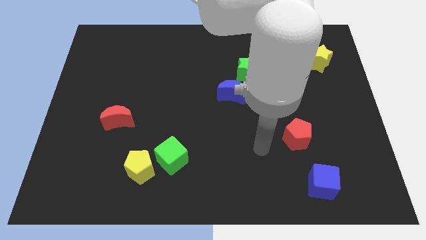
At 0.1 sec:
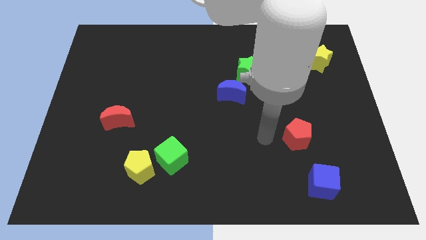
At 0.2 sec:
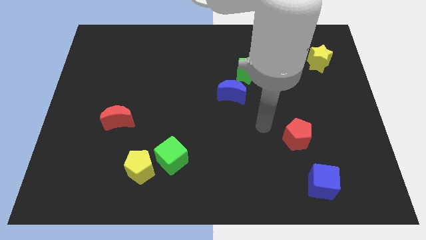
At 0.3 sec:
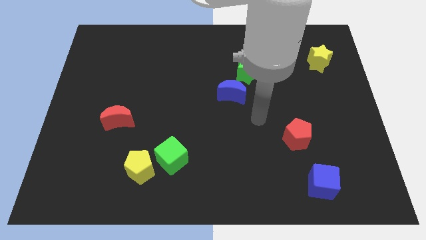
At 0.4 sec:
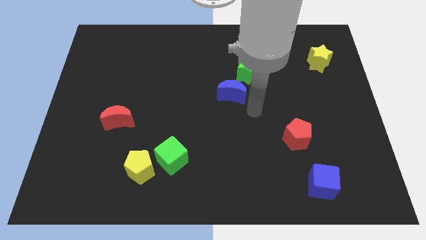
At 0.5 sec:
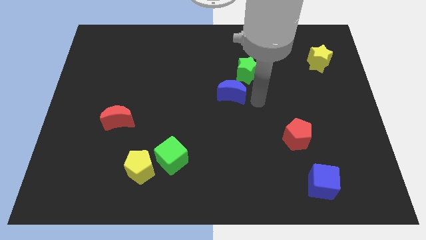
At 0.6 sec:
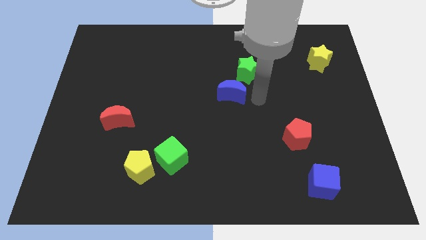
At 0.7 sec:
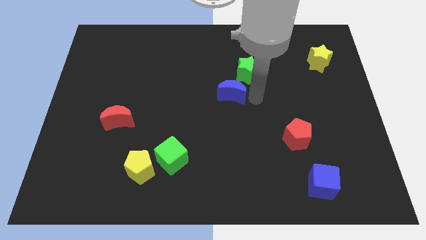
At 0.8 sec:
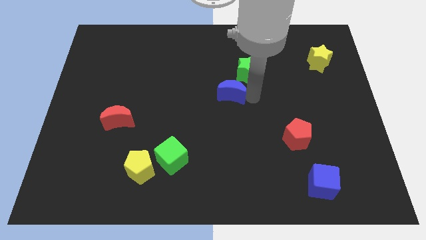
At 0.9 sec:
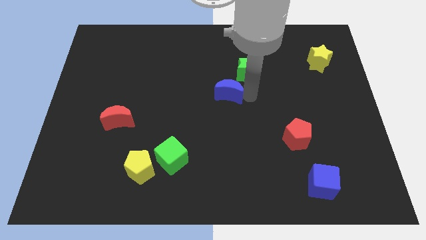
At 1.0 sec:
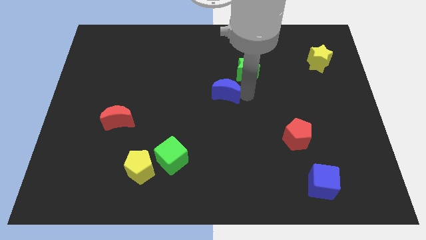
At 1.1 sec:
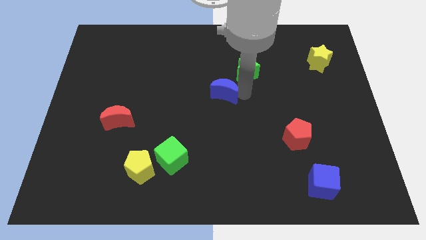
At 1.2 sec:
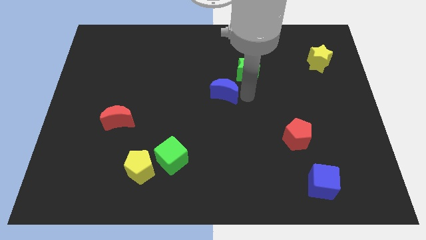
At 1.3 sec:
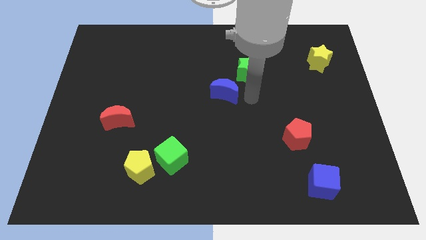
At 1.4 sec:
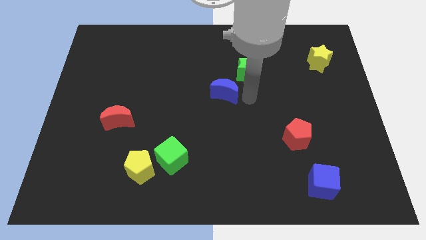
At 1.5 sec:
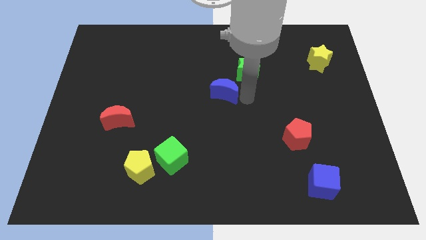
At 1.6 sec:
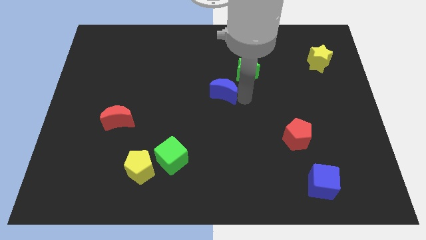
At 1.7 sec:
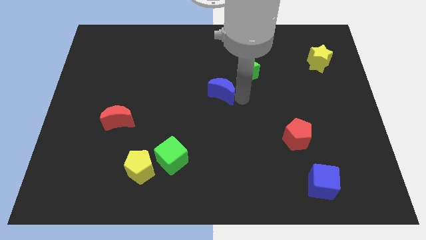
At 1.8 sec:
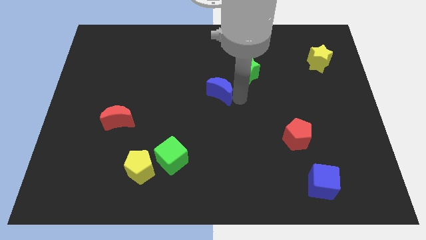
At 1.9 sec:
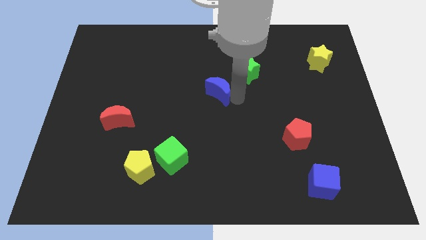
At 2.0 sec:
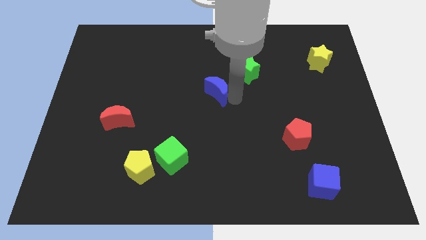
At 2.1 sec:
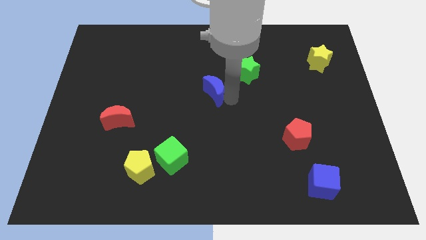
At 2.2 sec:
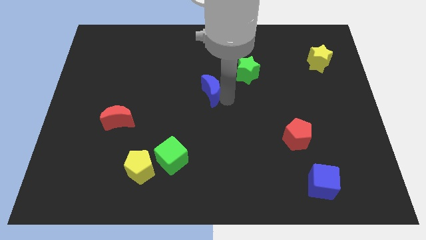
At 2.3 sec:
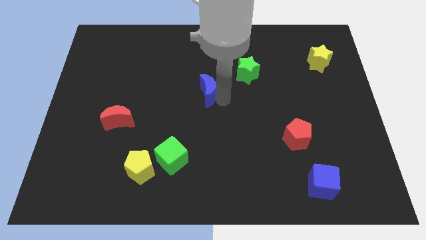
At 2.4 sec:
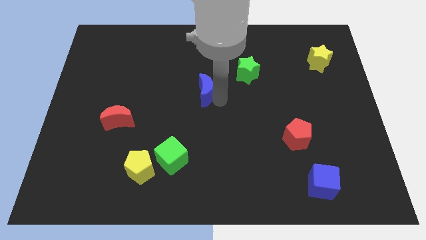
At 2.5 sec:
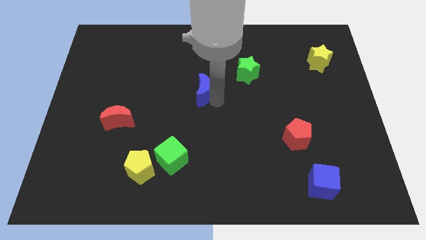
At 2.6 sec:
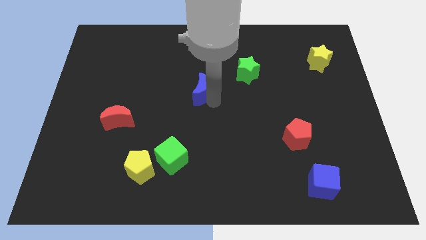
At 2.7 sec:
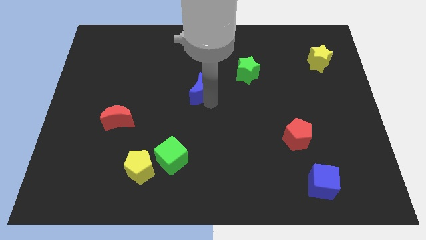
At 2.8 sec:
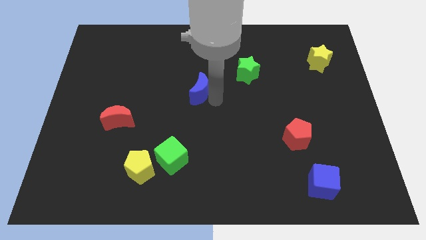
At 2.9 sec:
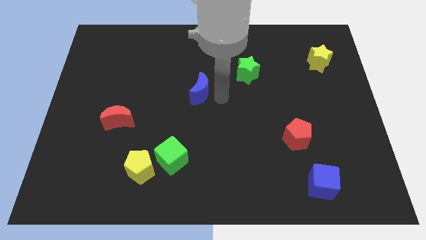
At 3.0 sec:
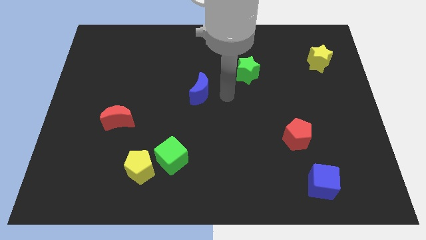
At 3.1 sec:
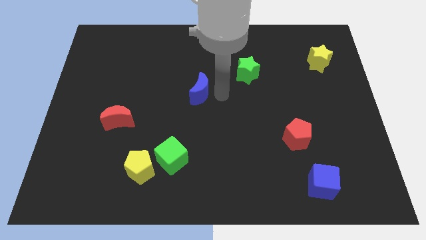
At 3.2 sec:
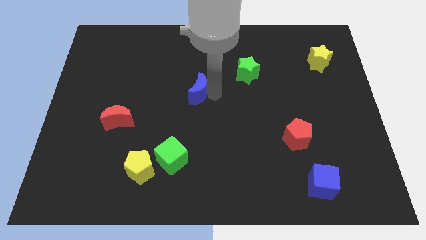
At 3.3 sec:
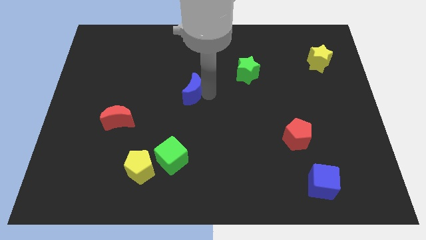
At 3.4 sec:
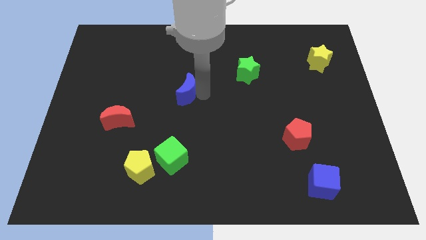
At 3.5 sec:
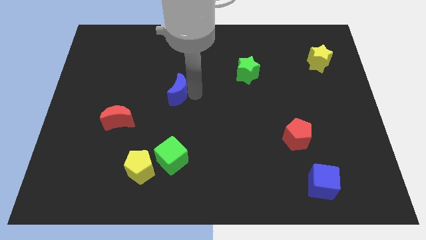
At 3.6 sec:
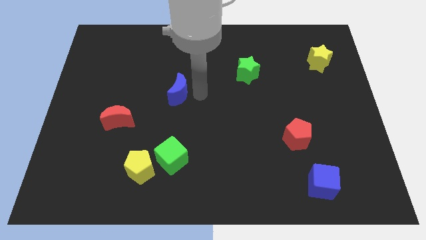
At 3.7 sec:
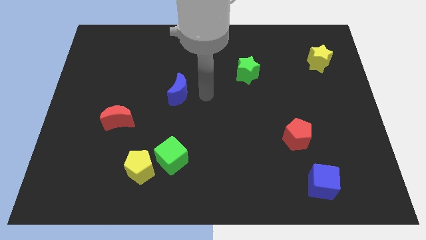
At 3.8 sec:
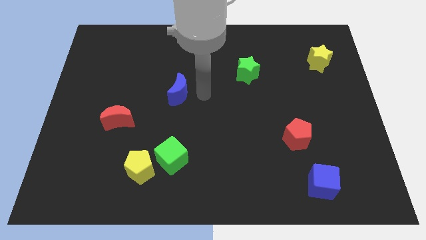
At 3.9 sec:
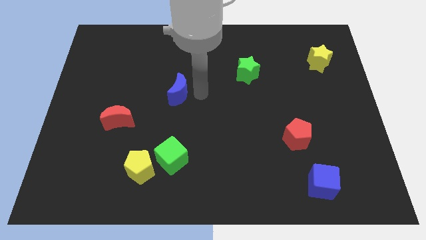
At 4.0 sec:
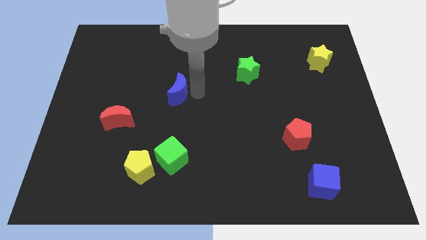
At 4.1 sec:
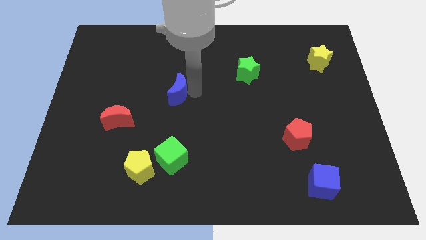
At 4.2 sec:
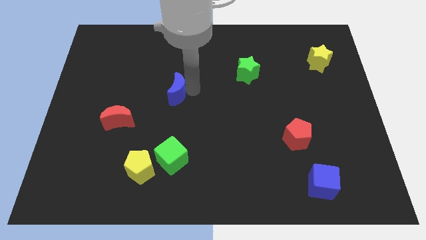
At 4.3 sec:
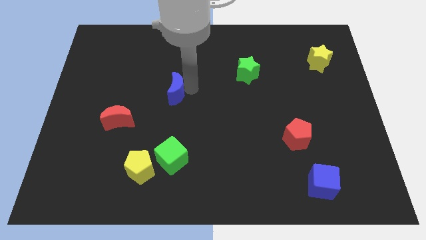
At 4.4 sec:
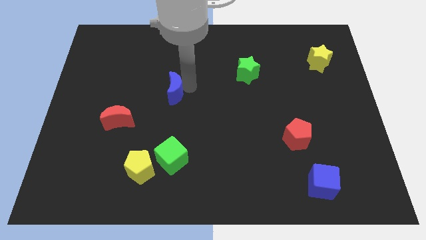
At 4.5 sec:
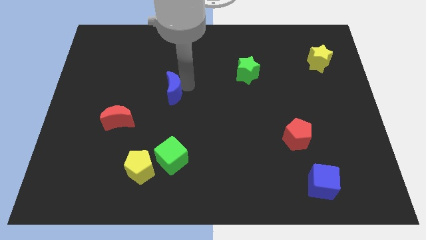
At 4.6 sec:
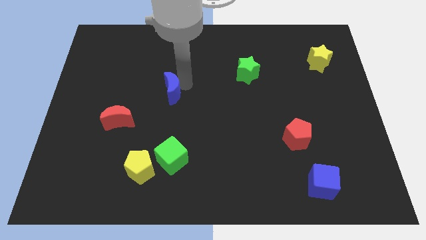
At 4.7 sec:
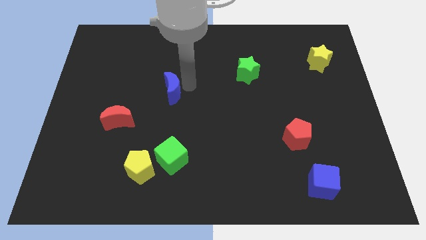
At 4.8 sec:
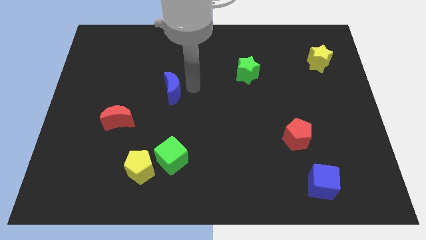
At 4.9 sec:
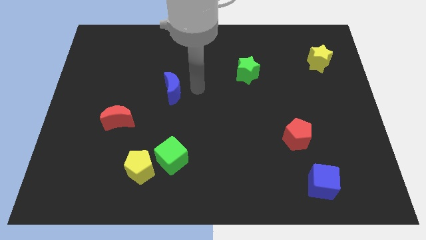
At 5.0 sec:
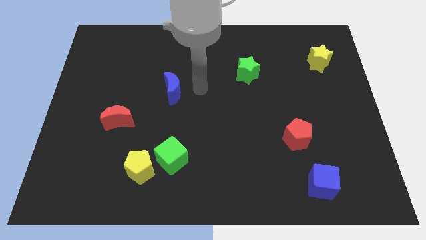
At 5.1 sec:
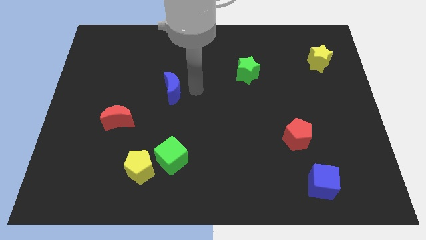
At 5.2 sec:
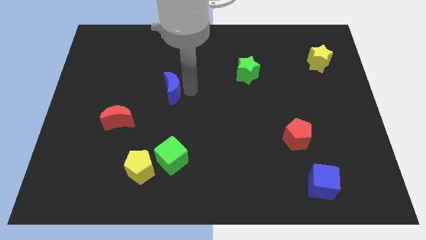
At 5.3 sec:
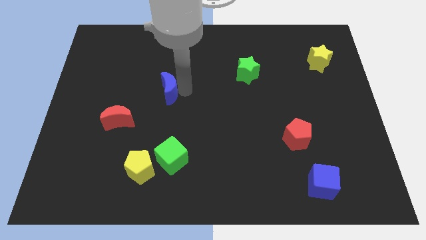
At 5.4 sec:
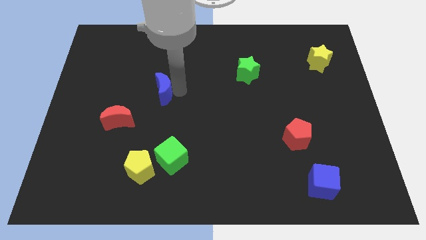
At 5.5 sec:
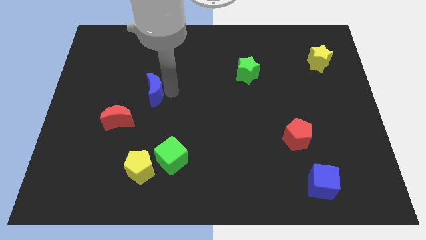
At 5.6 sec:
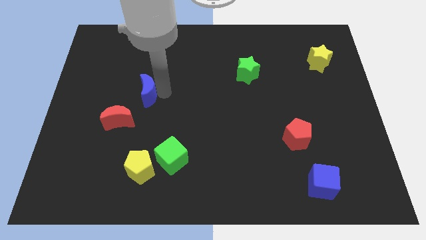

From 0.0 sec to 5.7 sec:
slide the blue moon left

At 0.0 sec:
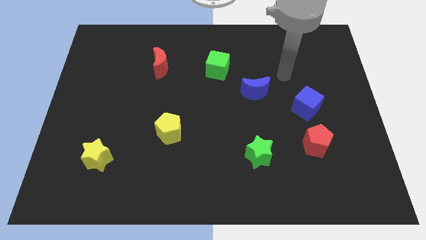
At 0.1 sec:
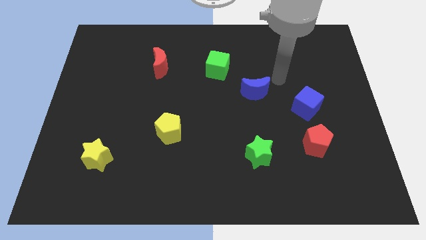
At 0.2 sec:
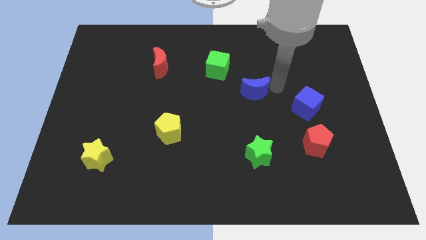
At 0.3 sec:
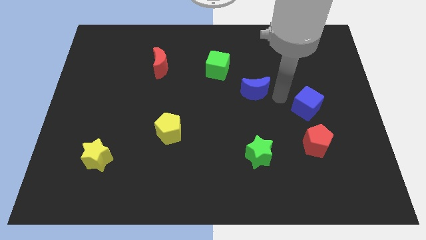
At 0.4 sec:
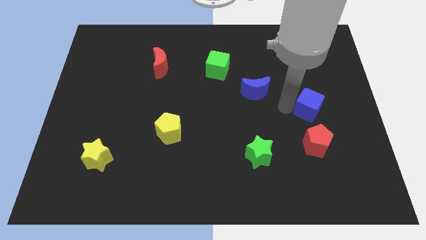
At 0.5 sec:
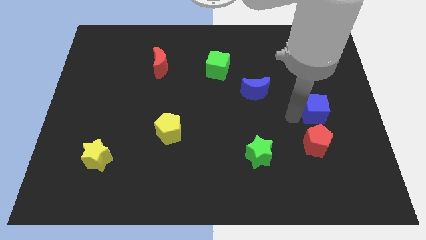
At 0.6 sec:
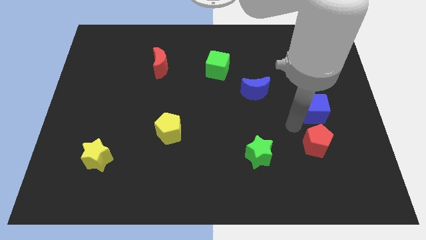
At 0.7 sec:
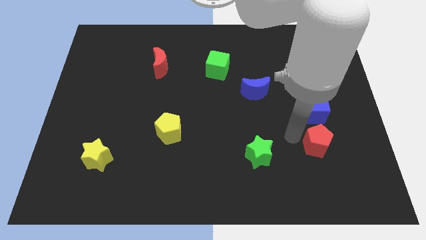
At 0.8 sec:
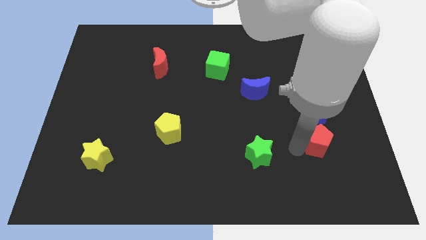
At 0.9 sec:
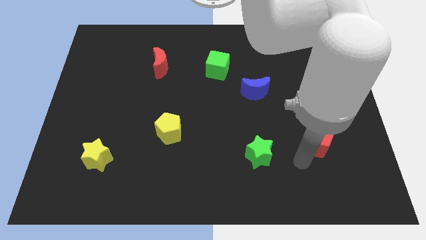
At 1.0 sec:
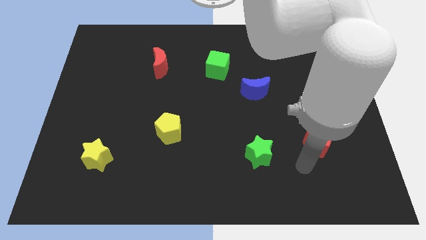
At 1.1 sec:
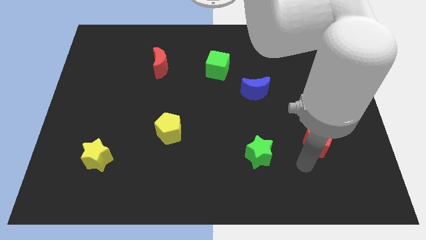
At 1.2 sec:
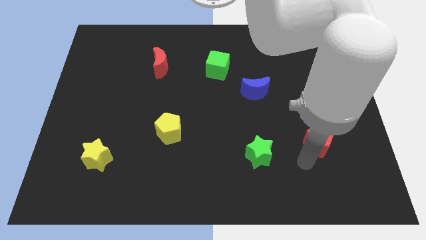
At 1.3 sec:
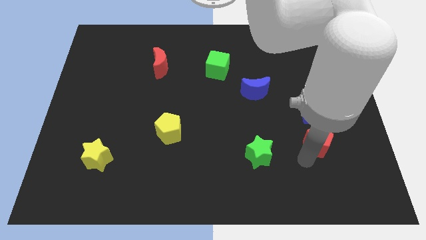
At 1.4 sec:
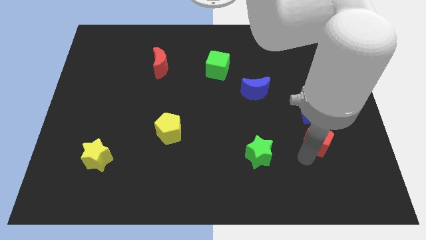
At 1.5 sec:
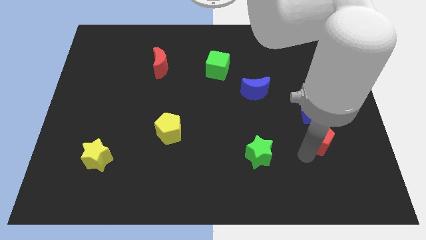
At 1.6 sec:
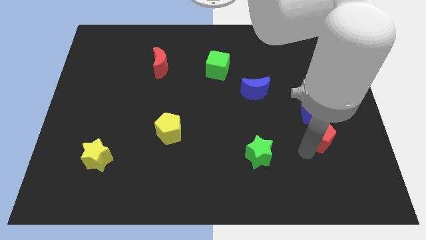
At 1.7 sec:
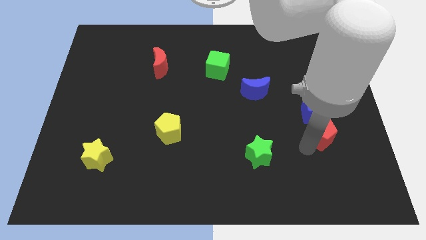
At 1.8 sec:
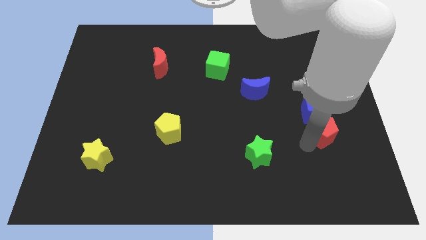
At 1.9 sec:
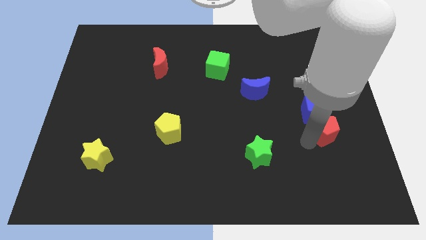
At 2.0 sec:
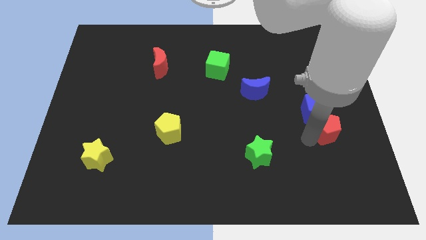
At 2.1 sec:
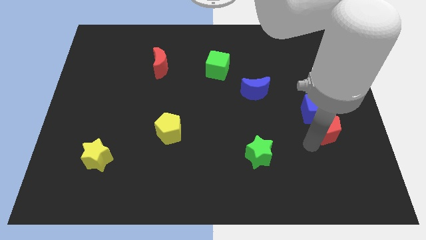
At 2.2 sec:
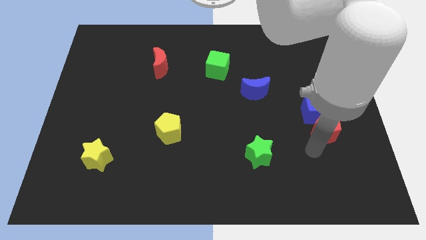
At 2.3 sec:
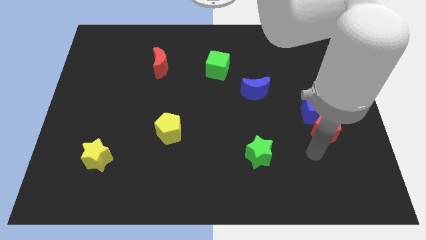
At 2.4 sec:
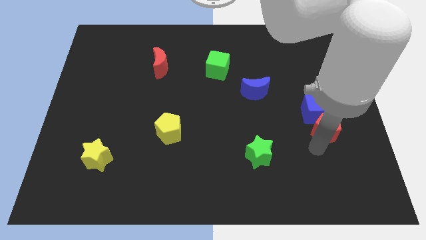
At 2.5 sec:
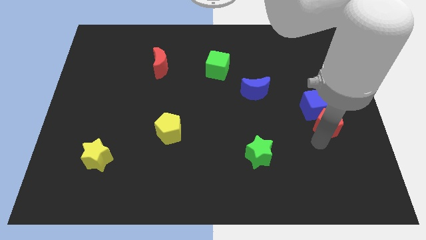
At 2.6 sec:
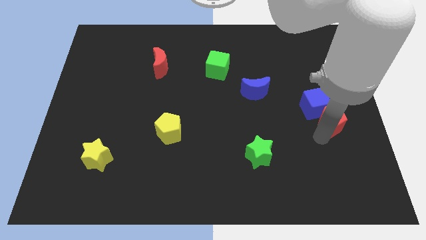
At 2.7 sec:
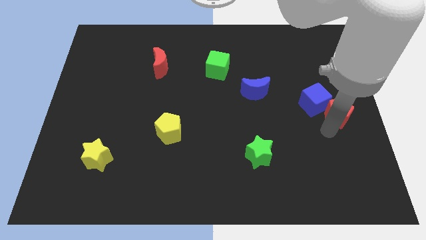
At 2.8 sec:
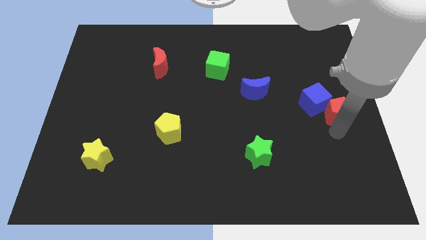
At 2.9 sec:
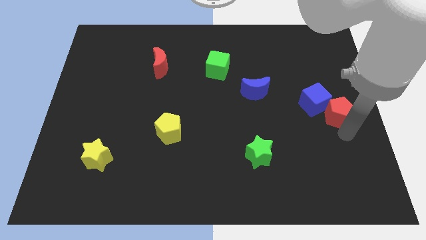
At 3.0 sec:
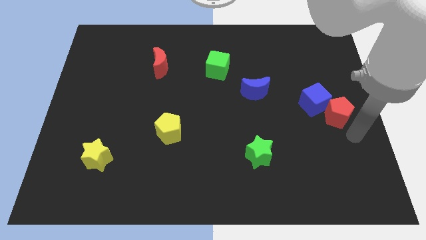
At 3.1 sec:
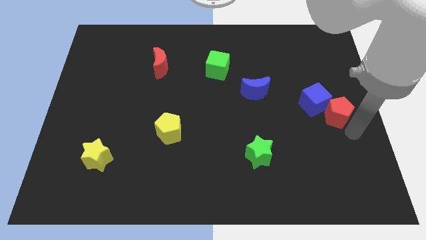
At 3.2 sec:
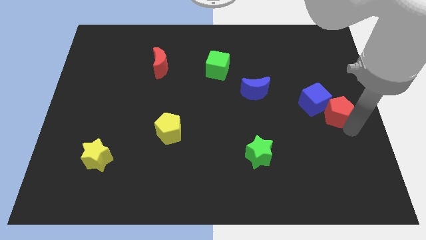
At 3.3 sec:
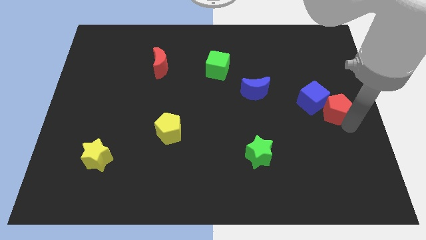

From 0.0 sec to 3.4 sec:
move the red pentagon slightly upwards
